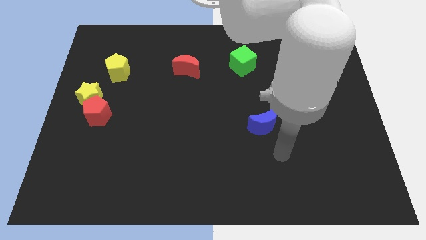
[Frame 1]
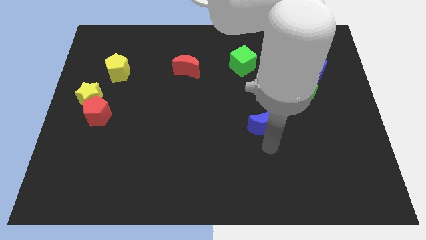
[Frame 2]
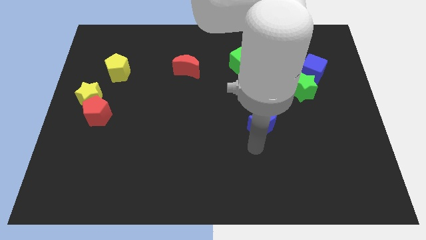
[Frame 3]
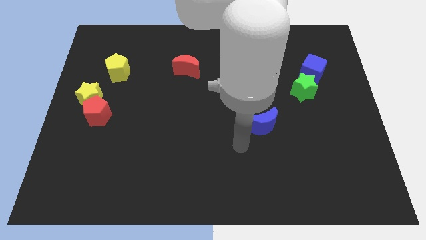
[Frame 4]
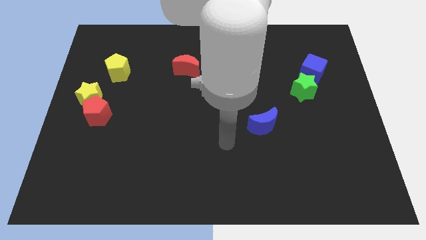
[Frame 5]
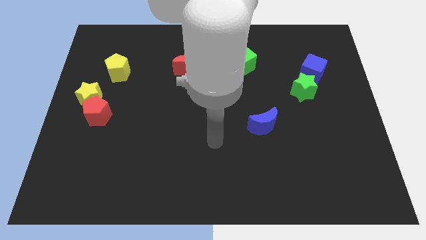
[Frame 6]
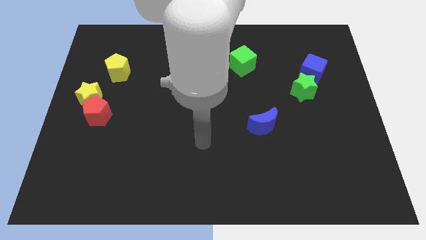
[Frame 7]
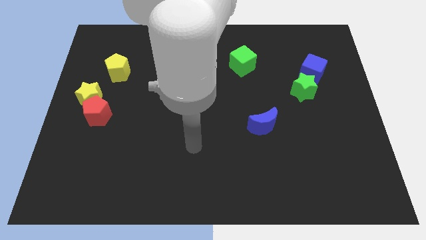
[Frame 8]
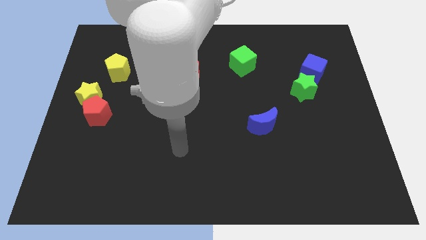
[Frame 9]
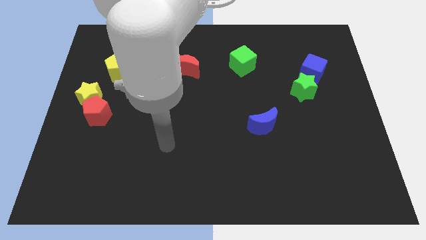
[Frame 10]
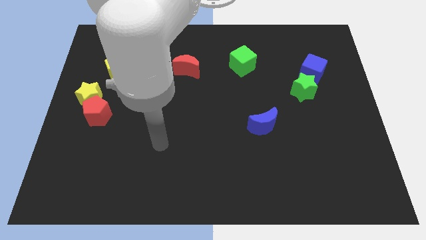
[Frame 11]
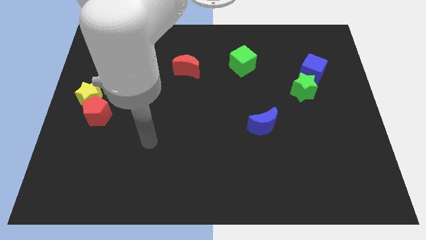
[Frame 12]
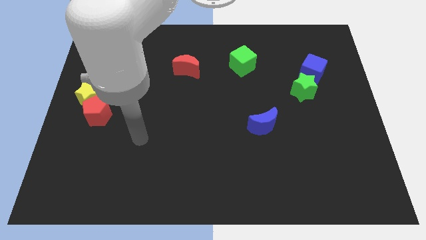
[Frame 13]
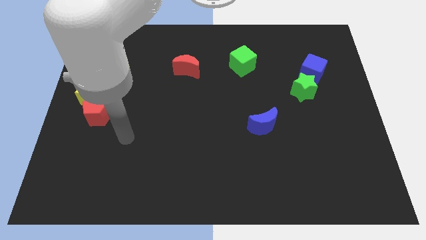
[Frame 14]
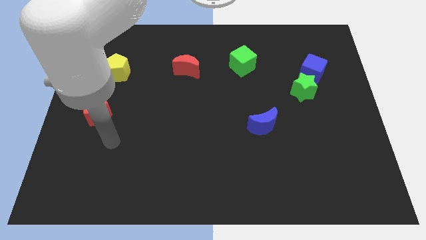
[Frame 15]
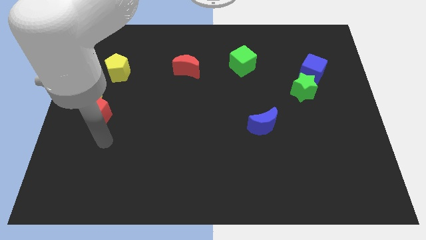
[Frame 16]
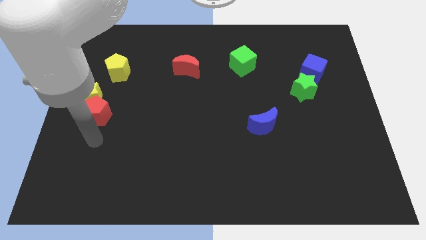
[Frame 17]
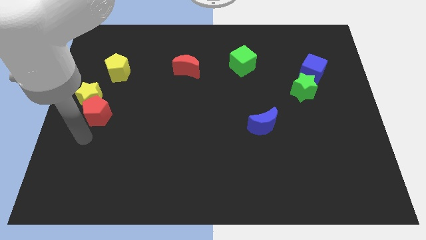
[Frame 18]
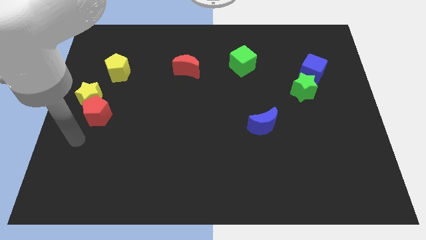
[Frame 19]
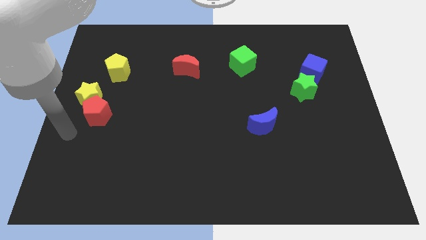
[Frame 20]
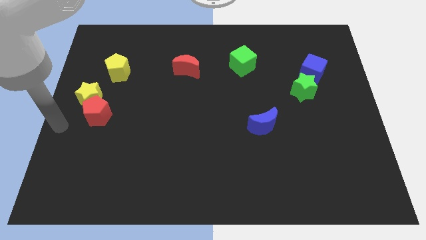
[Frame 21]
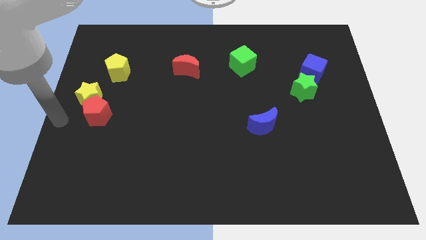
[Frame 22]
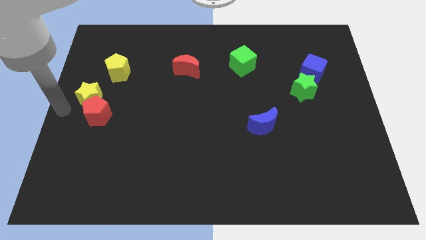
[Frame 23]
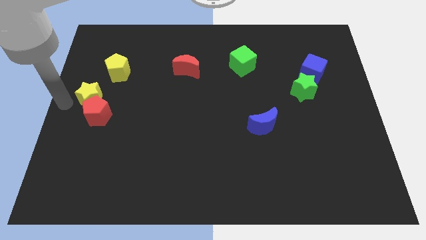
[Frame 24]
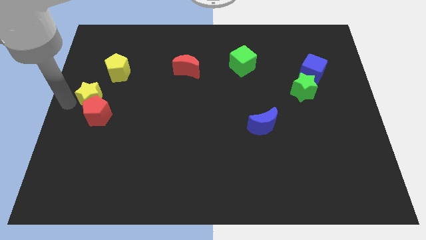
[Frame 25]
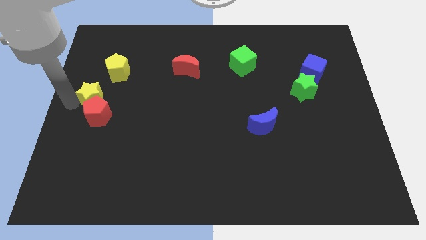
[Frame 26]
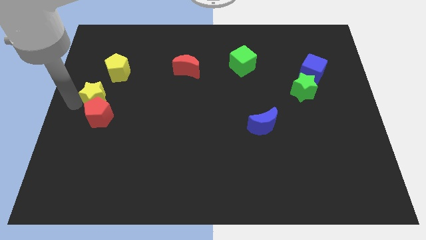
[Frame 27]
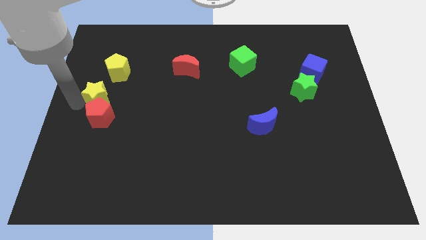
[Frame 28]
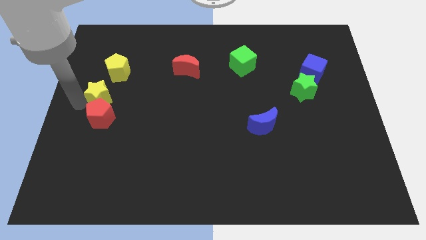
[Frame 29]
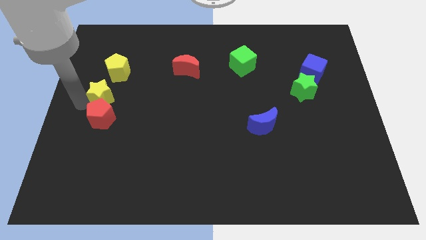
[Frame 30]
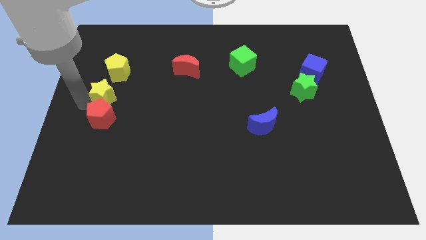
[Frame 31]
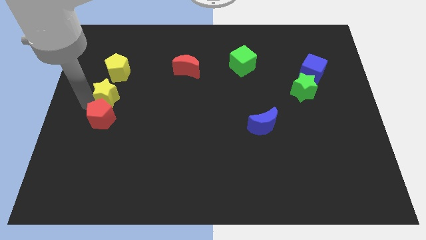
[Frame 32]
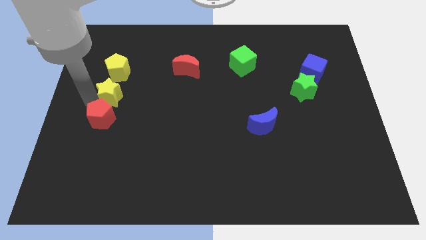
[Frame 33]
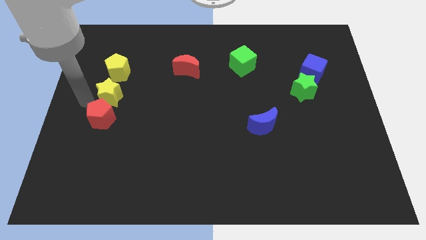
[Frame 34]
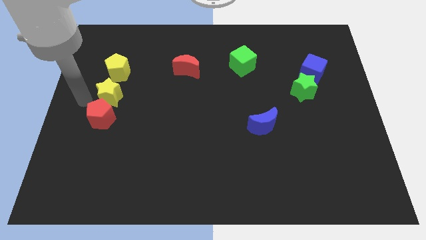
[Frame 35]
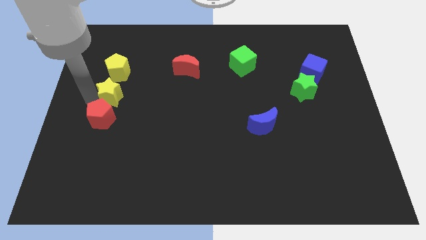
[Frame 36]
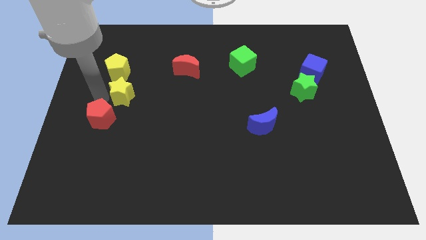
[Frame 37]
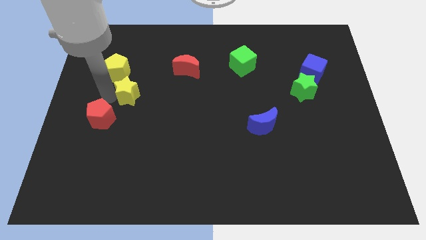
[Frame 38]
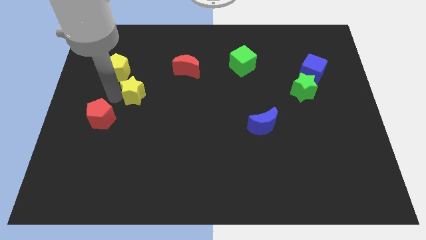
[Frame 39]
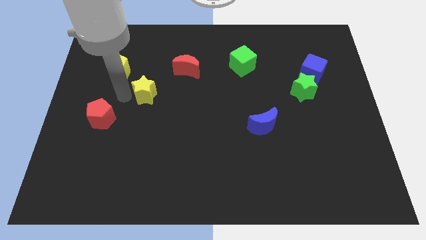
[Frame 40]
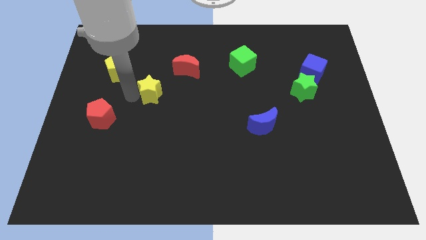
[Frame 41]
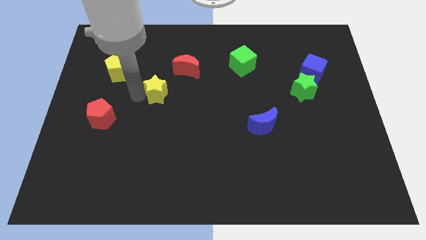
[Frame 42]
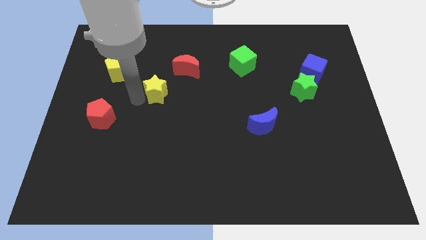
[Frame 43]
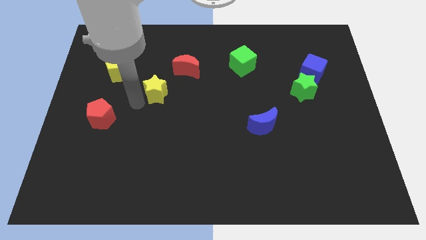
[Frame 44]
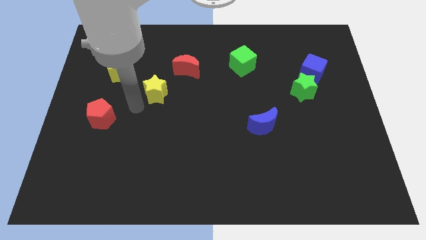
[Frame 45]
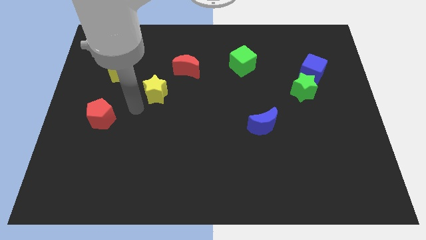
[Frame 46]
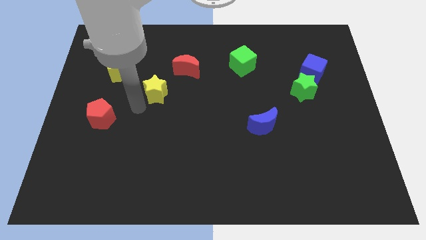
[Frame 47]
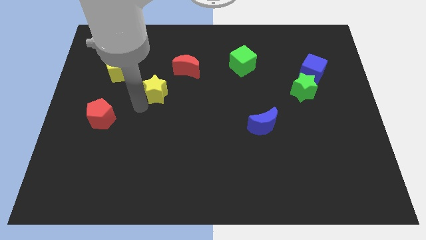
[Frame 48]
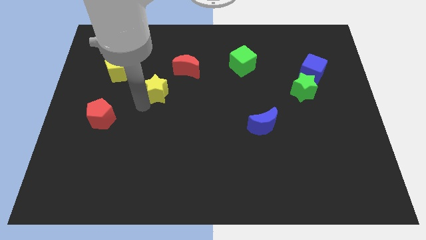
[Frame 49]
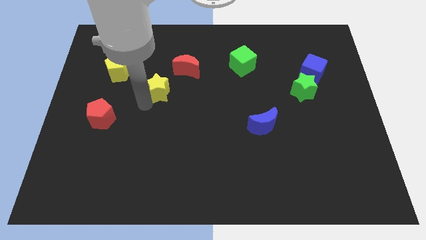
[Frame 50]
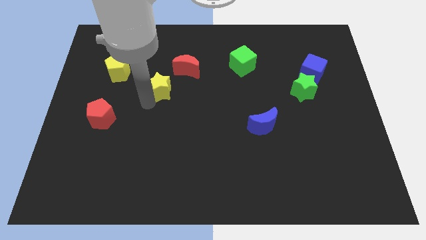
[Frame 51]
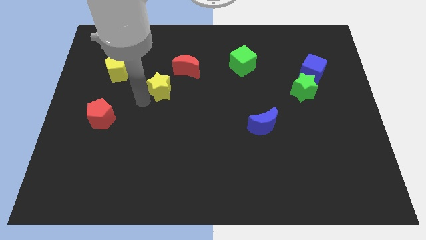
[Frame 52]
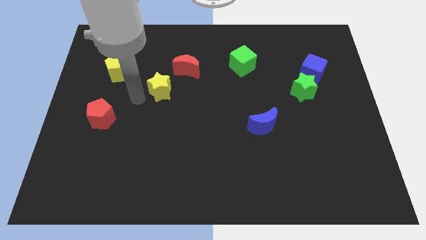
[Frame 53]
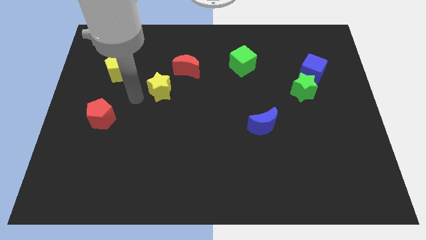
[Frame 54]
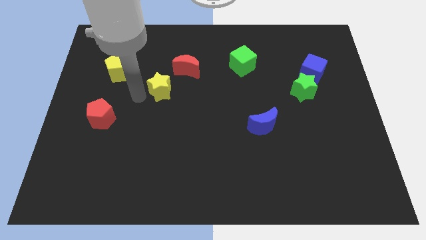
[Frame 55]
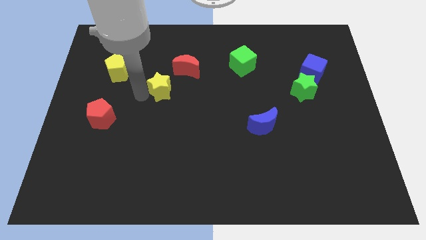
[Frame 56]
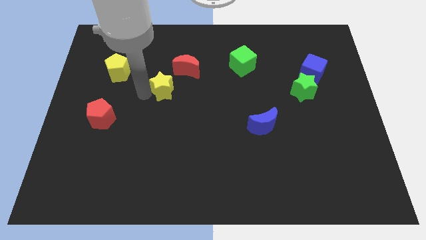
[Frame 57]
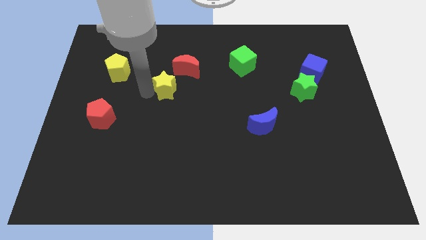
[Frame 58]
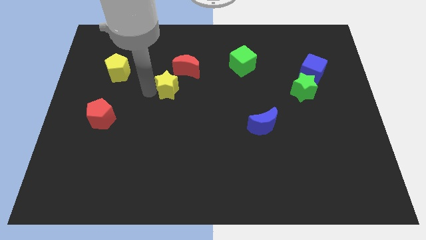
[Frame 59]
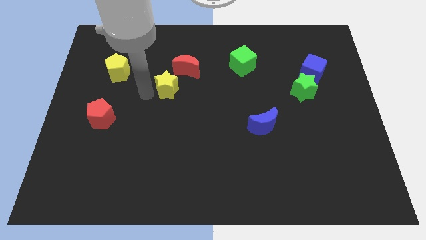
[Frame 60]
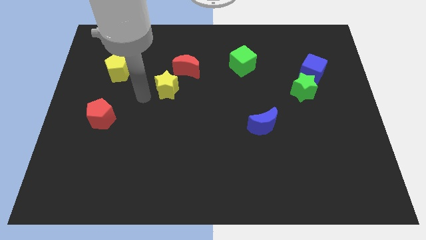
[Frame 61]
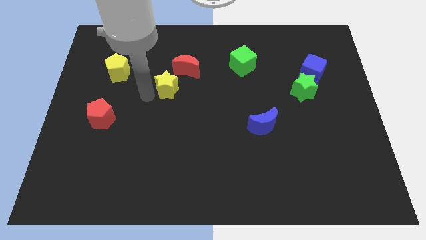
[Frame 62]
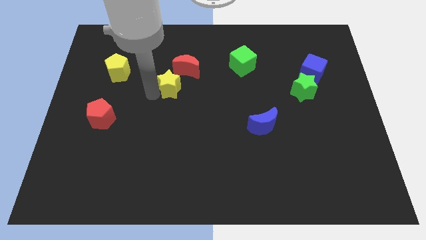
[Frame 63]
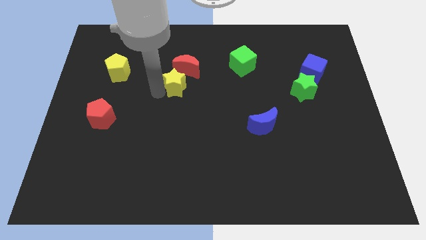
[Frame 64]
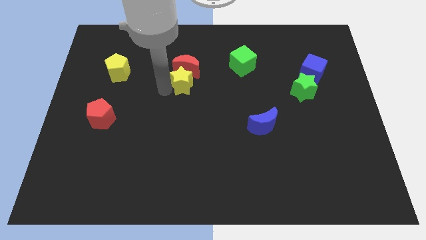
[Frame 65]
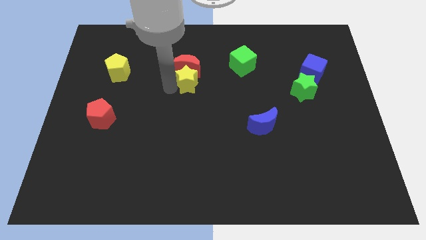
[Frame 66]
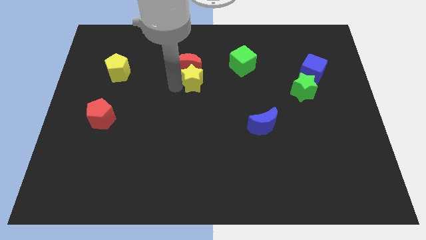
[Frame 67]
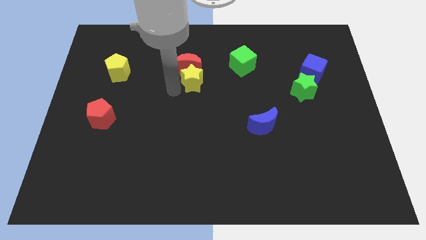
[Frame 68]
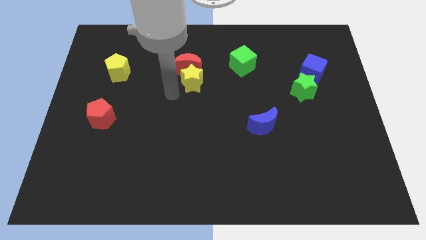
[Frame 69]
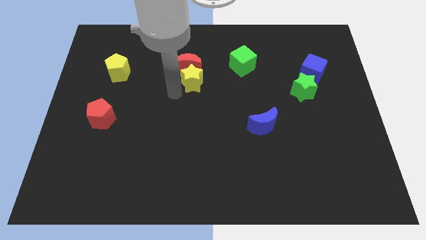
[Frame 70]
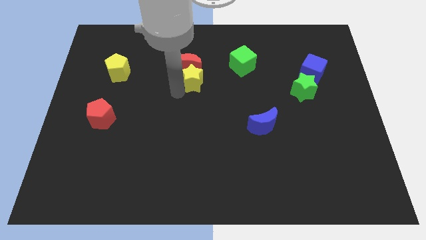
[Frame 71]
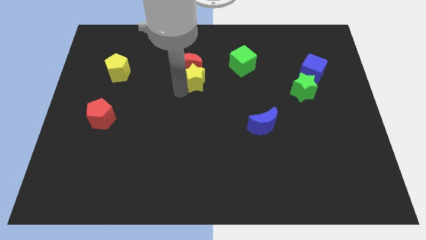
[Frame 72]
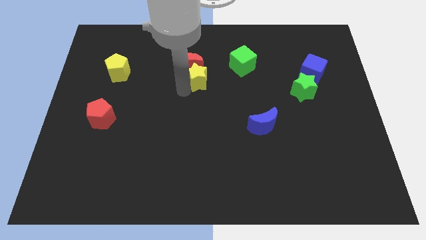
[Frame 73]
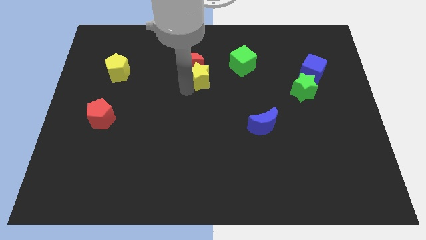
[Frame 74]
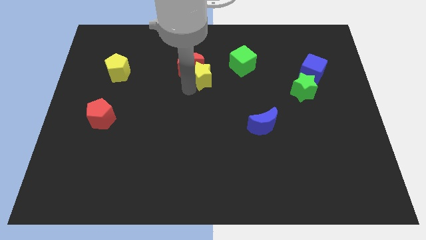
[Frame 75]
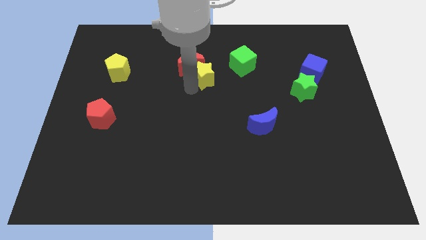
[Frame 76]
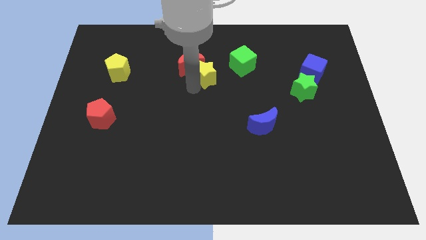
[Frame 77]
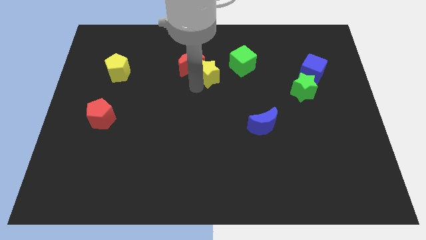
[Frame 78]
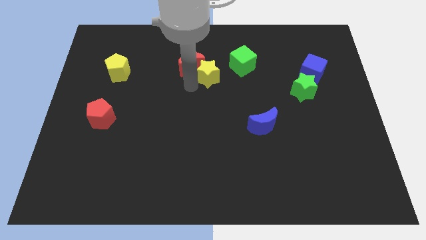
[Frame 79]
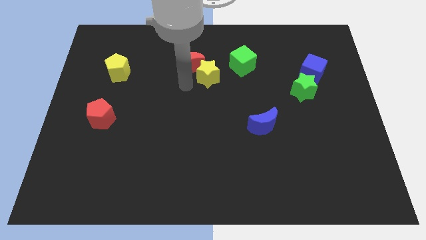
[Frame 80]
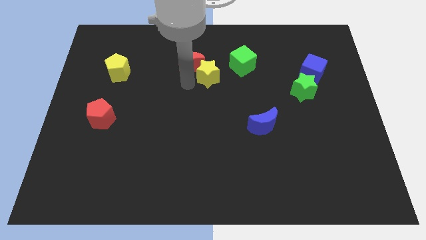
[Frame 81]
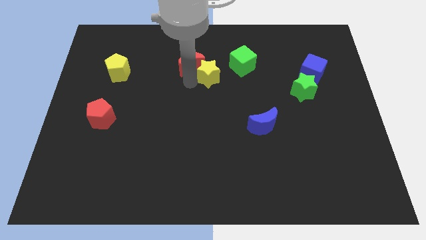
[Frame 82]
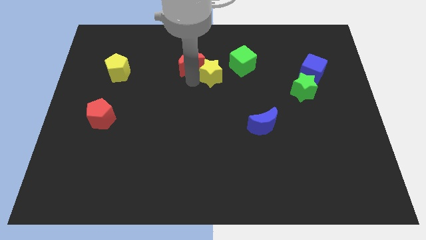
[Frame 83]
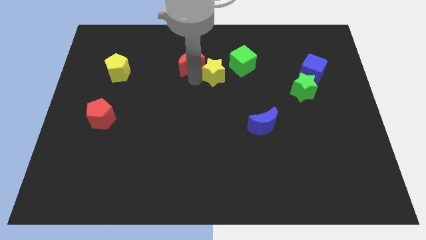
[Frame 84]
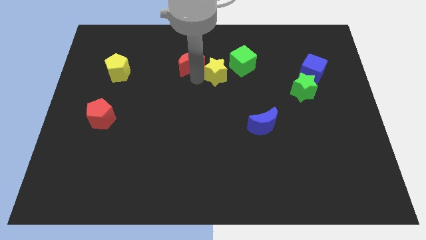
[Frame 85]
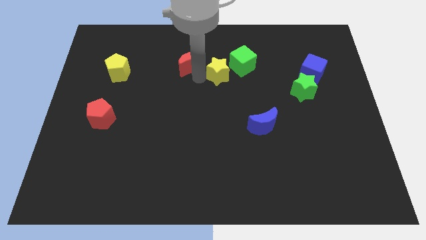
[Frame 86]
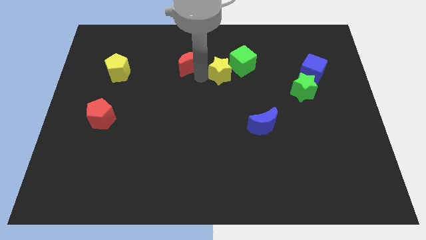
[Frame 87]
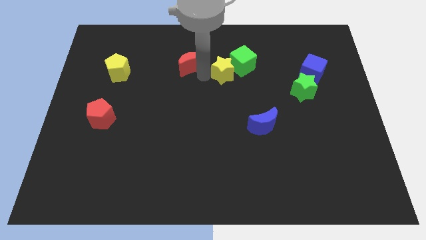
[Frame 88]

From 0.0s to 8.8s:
push the yellow star next to the green cube
